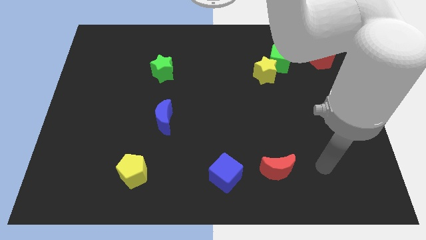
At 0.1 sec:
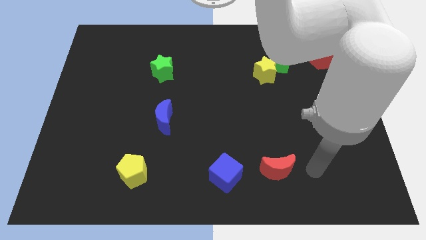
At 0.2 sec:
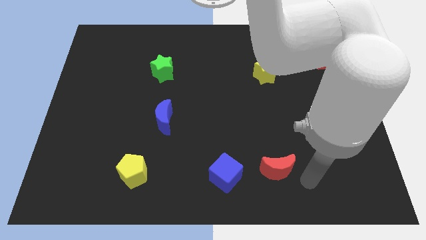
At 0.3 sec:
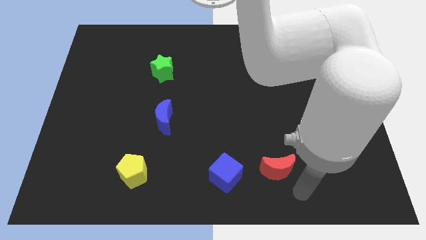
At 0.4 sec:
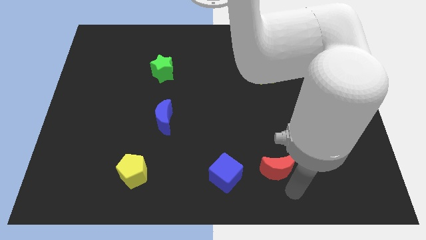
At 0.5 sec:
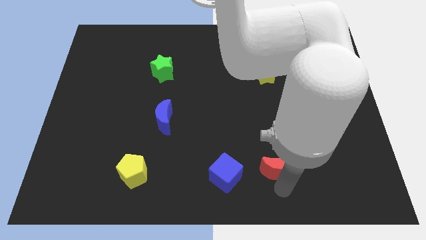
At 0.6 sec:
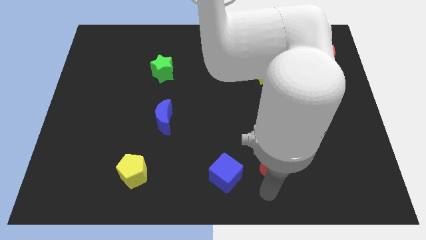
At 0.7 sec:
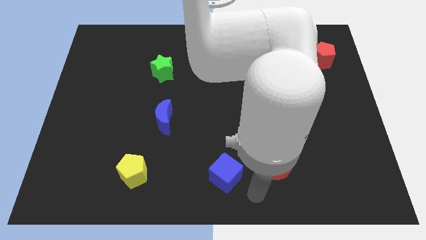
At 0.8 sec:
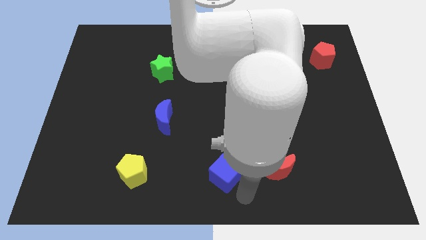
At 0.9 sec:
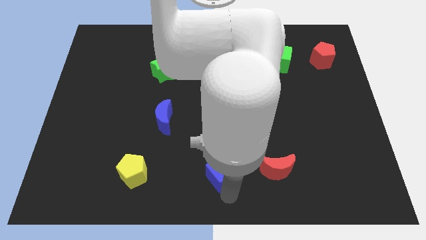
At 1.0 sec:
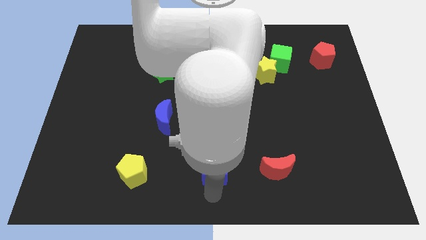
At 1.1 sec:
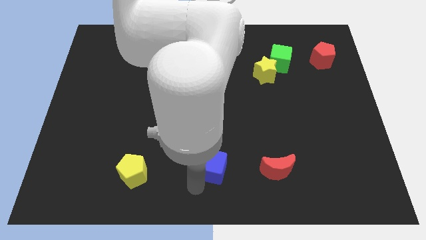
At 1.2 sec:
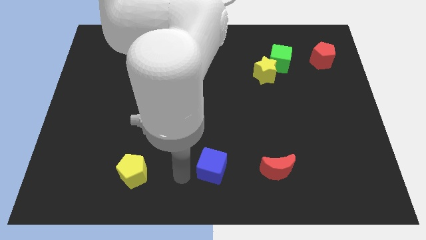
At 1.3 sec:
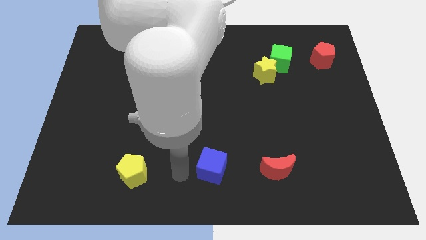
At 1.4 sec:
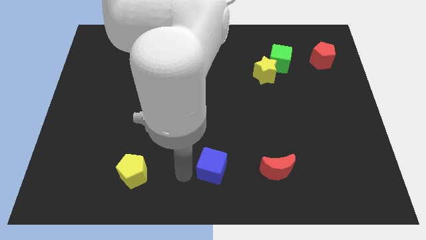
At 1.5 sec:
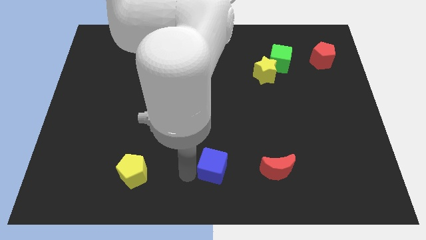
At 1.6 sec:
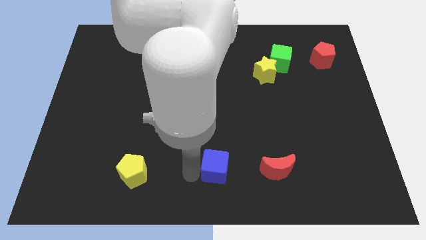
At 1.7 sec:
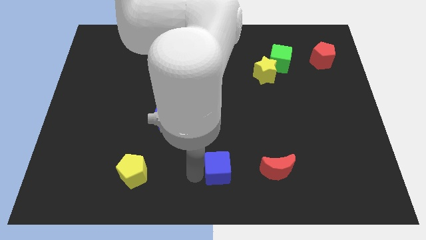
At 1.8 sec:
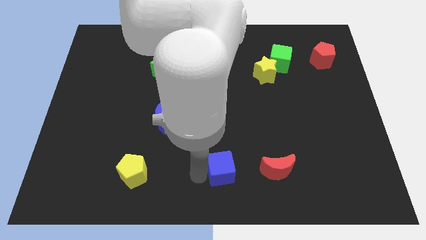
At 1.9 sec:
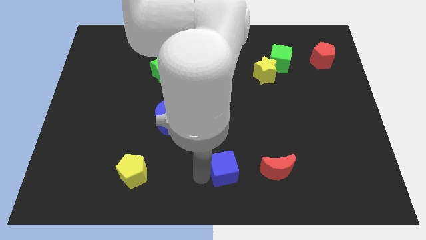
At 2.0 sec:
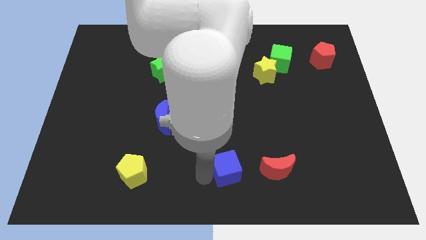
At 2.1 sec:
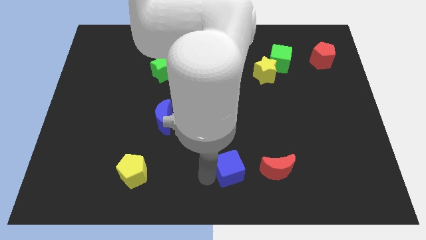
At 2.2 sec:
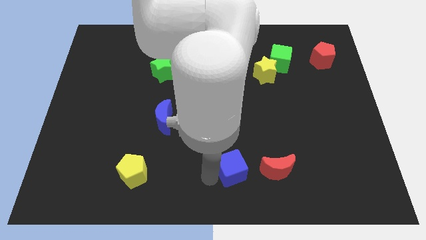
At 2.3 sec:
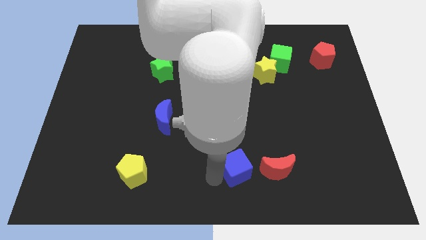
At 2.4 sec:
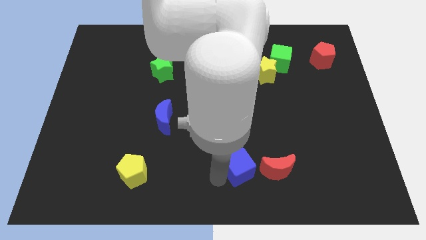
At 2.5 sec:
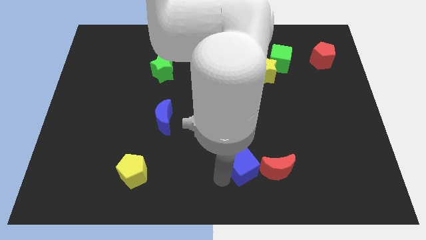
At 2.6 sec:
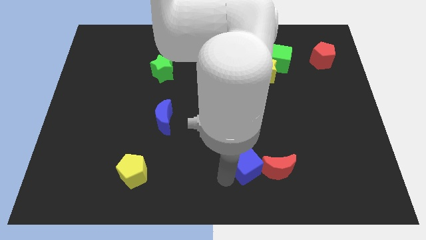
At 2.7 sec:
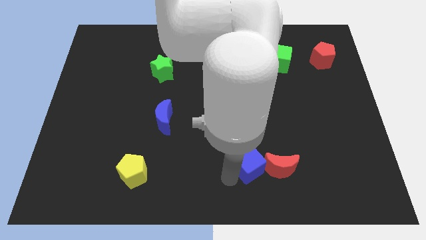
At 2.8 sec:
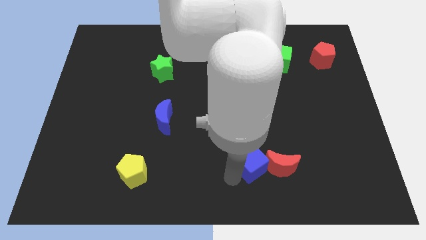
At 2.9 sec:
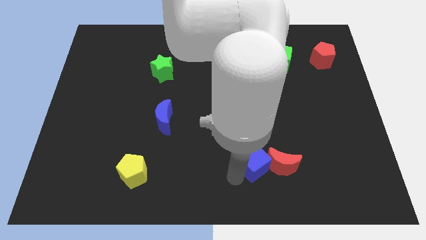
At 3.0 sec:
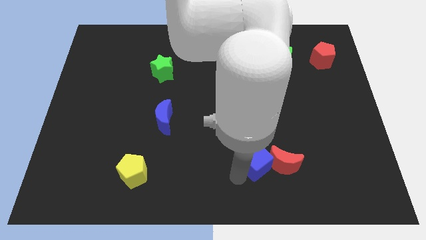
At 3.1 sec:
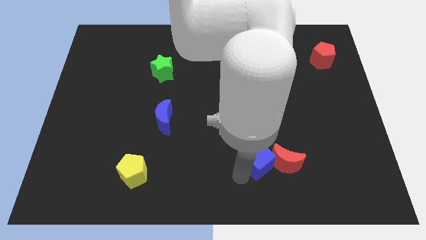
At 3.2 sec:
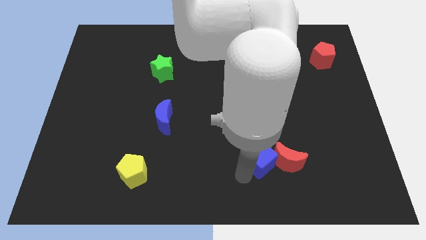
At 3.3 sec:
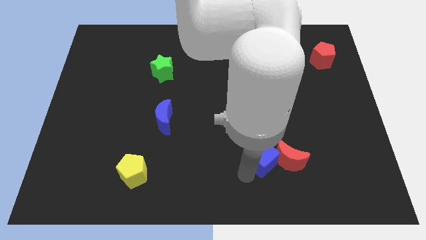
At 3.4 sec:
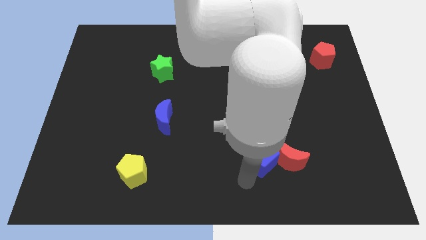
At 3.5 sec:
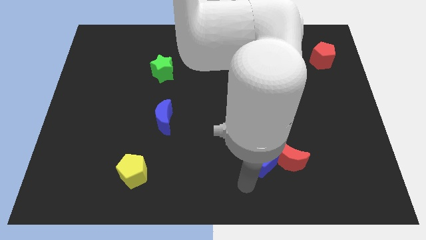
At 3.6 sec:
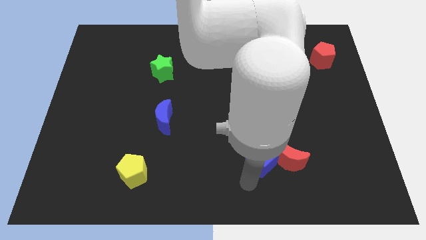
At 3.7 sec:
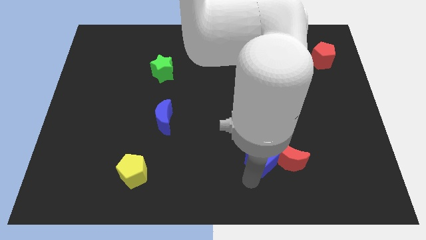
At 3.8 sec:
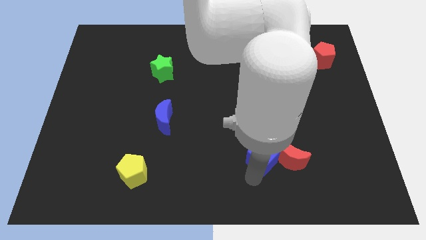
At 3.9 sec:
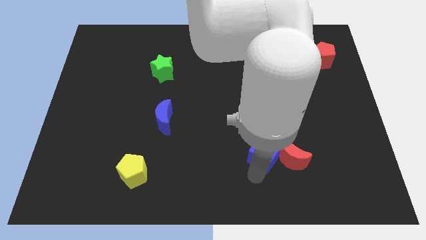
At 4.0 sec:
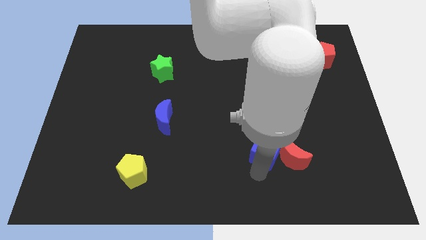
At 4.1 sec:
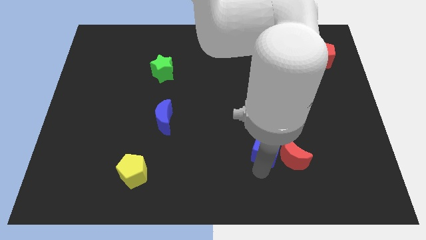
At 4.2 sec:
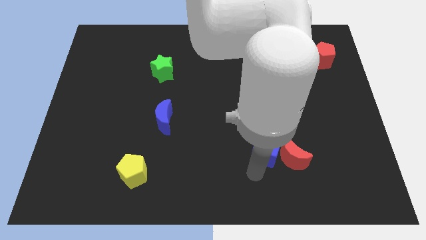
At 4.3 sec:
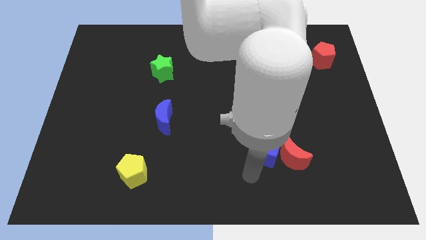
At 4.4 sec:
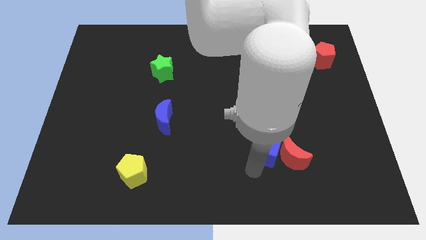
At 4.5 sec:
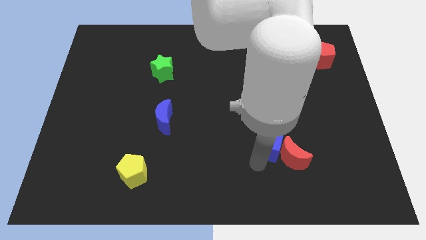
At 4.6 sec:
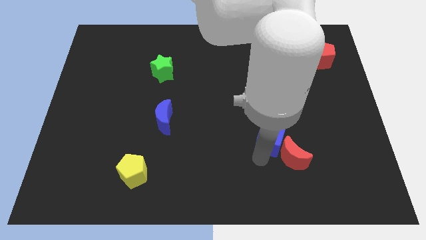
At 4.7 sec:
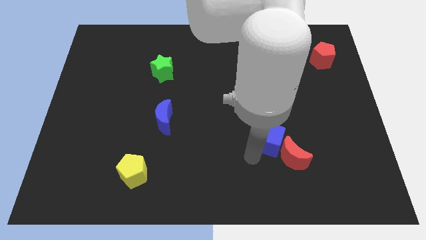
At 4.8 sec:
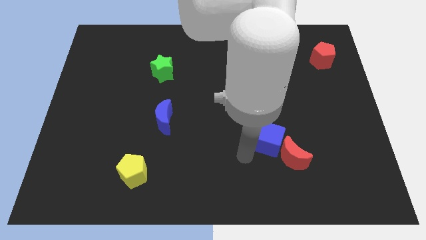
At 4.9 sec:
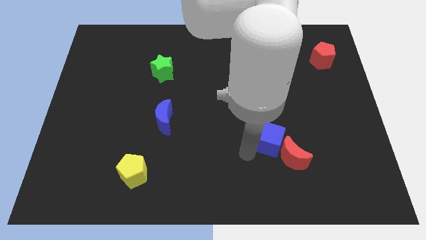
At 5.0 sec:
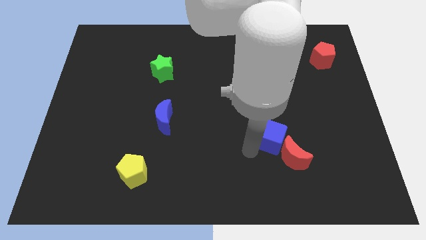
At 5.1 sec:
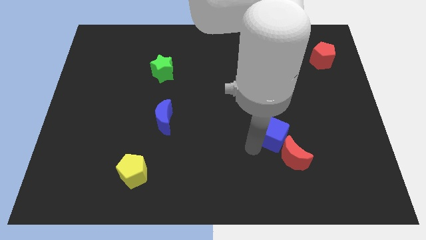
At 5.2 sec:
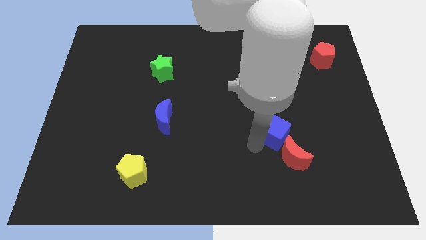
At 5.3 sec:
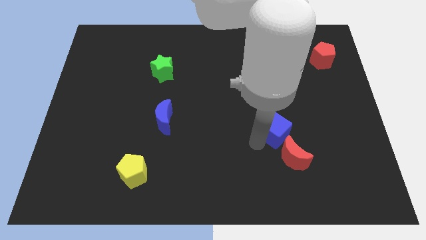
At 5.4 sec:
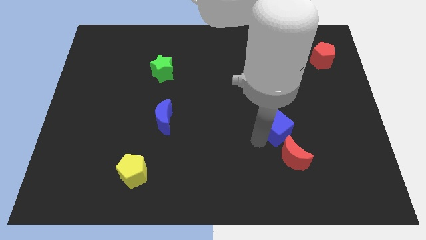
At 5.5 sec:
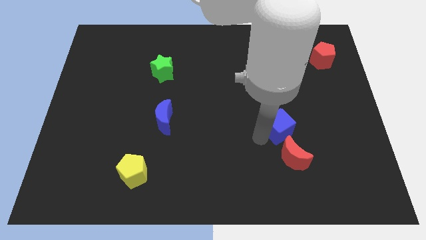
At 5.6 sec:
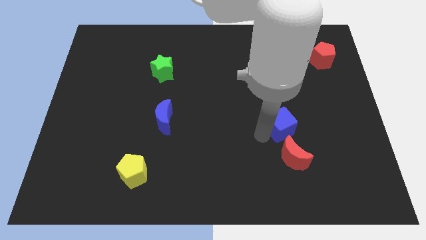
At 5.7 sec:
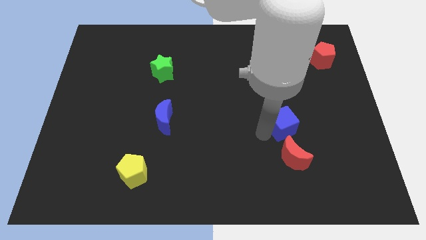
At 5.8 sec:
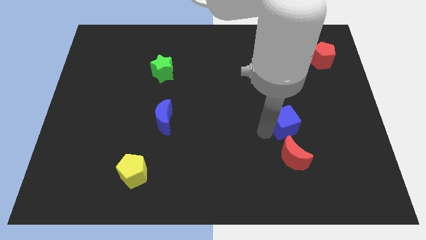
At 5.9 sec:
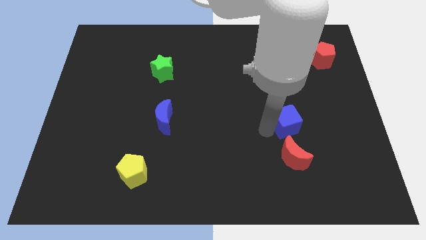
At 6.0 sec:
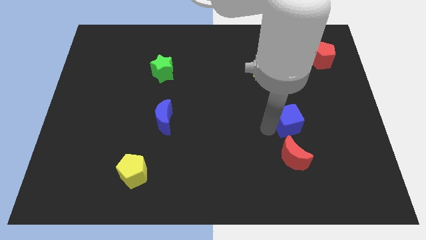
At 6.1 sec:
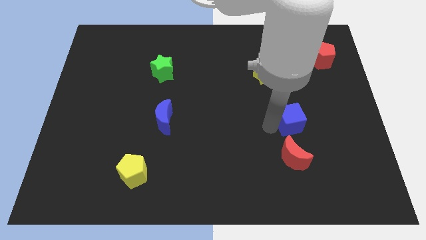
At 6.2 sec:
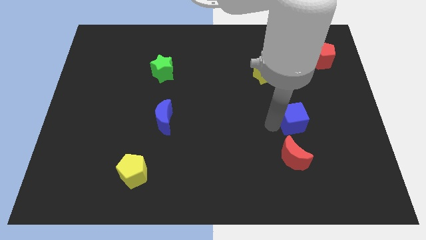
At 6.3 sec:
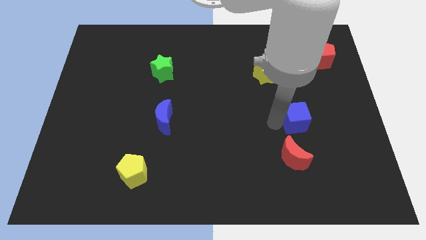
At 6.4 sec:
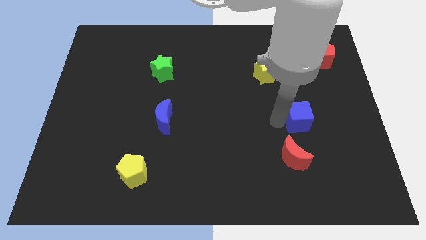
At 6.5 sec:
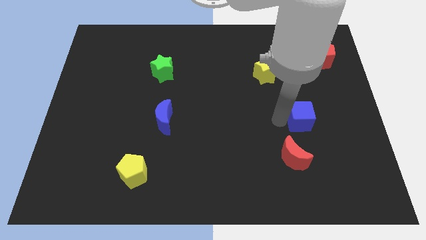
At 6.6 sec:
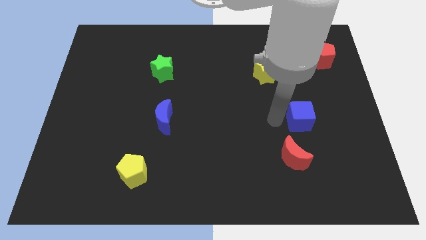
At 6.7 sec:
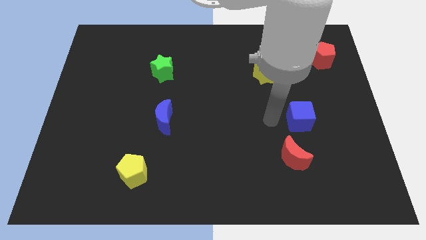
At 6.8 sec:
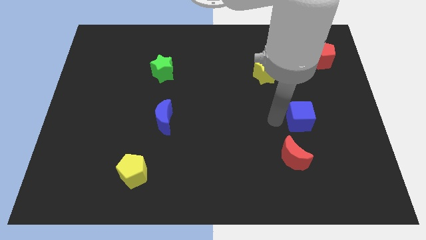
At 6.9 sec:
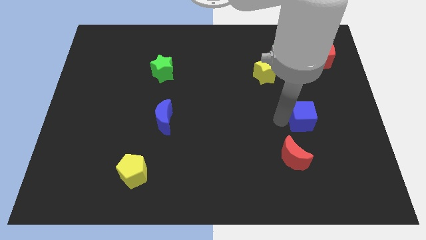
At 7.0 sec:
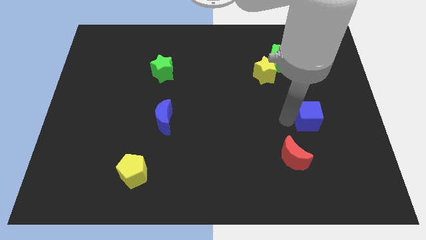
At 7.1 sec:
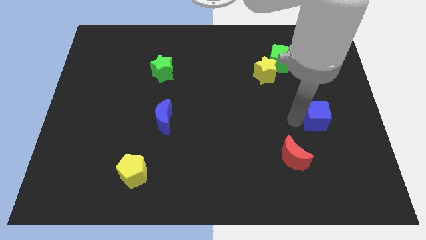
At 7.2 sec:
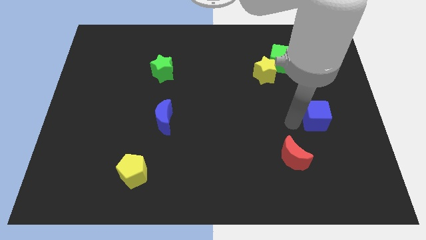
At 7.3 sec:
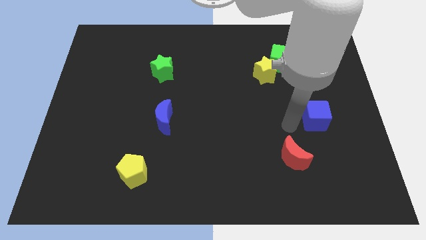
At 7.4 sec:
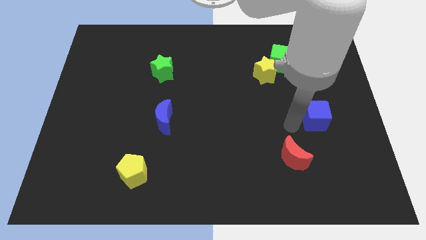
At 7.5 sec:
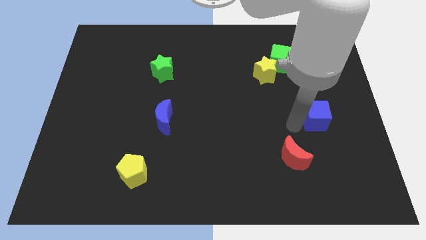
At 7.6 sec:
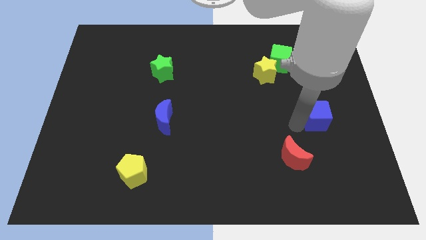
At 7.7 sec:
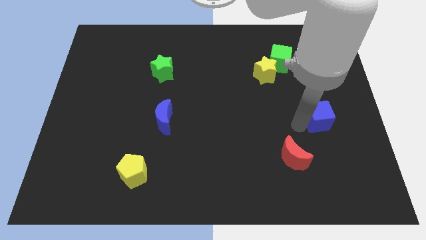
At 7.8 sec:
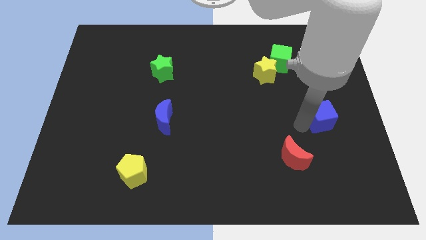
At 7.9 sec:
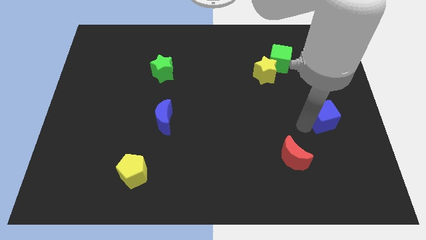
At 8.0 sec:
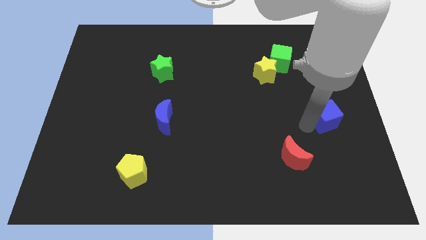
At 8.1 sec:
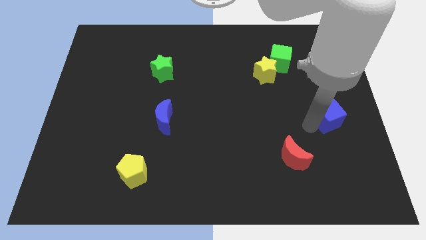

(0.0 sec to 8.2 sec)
push the blue cube to the right side of the board
